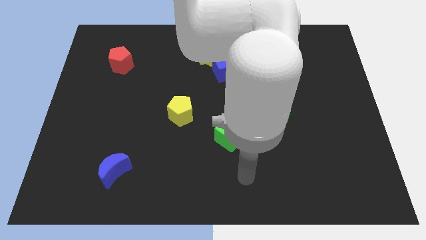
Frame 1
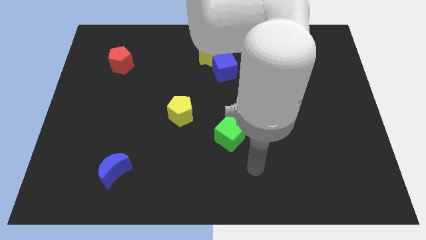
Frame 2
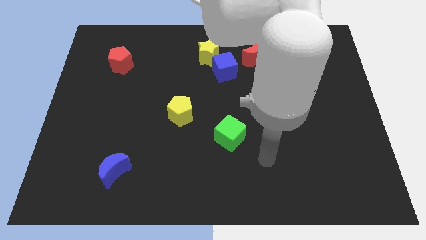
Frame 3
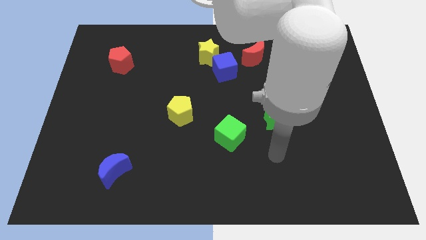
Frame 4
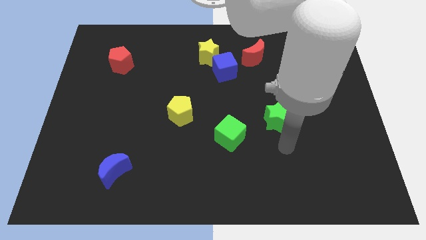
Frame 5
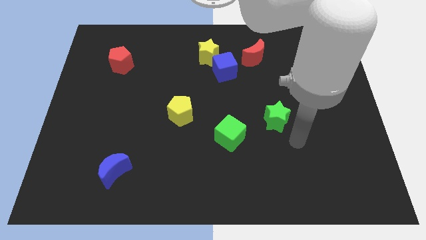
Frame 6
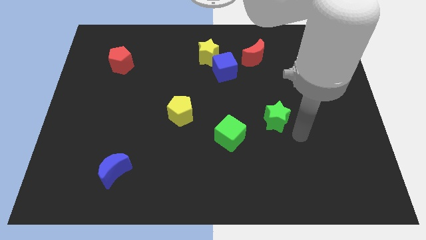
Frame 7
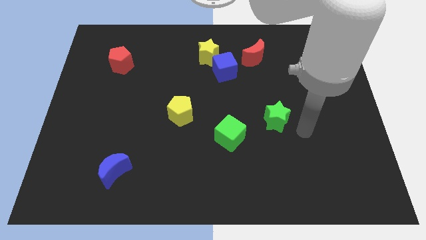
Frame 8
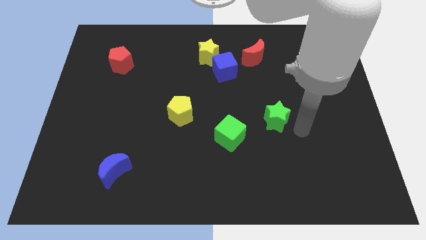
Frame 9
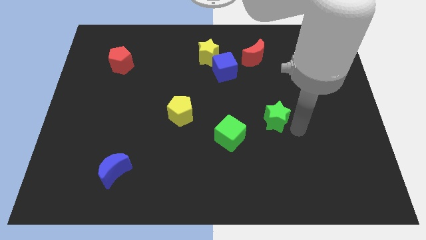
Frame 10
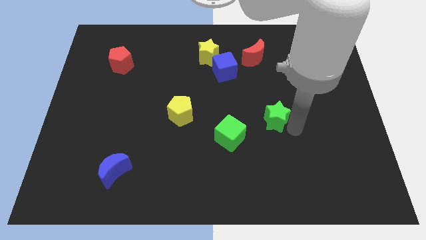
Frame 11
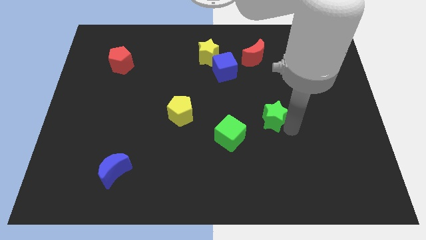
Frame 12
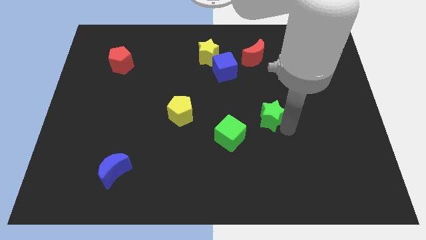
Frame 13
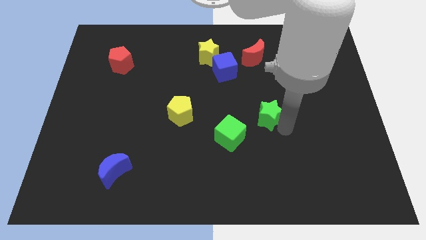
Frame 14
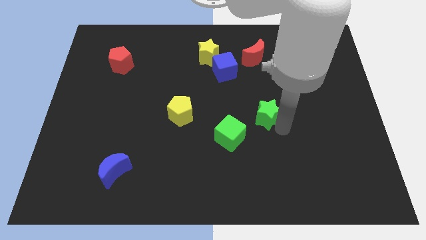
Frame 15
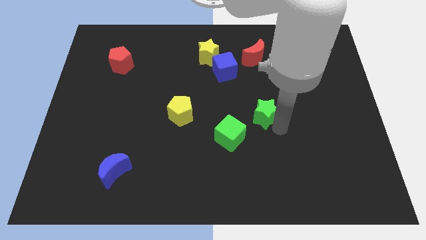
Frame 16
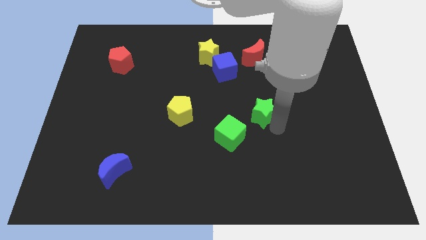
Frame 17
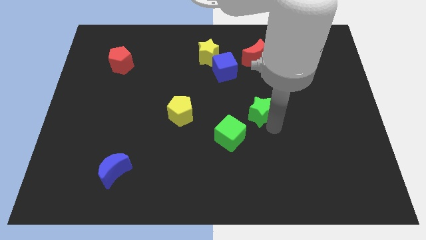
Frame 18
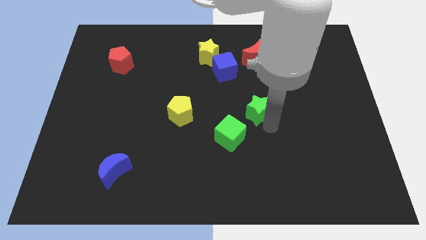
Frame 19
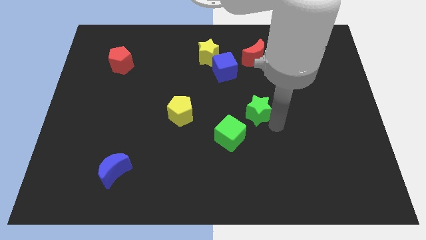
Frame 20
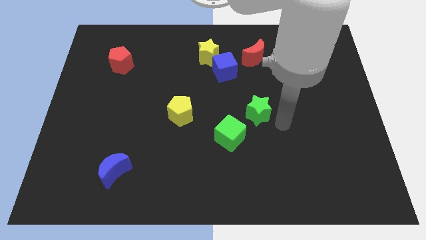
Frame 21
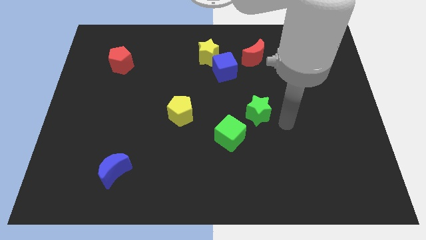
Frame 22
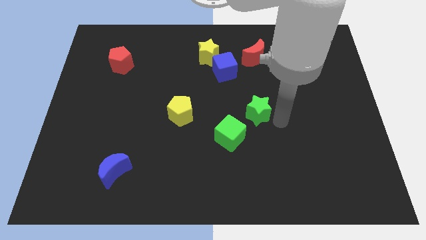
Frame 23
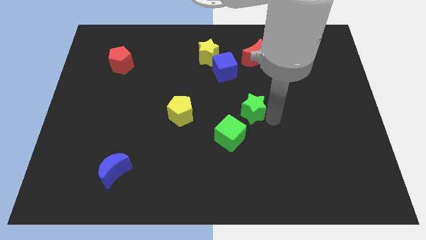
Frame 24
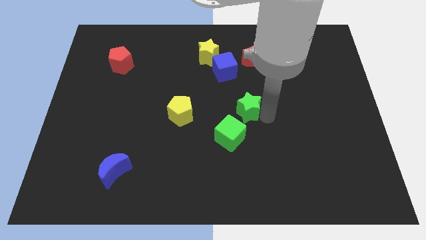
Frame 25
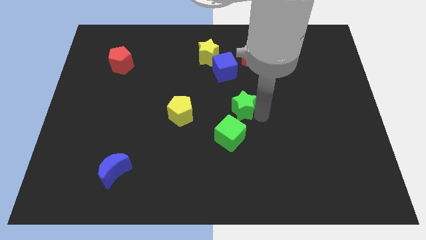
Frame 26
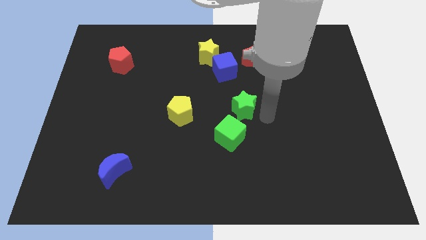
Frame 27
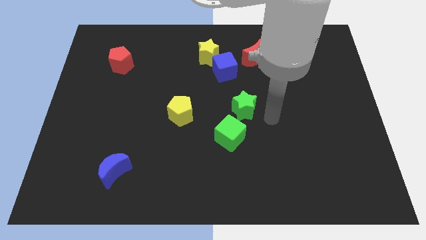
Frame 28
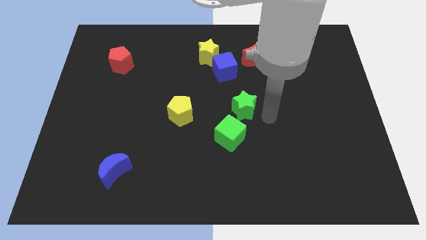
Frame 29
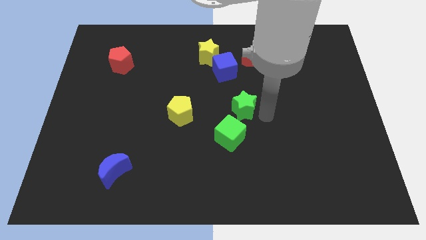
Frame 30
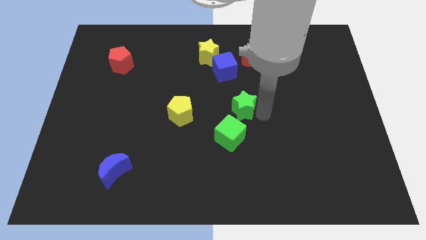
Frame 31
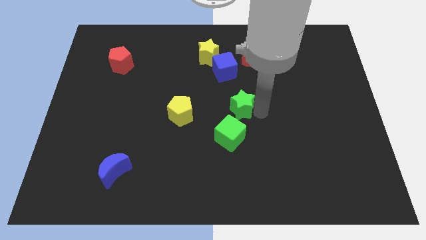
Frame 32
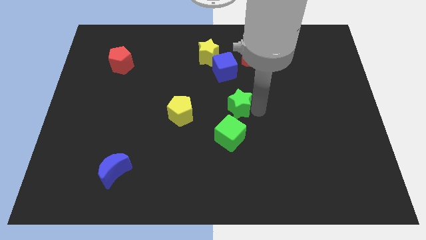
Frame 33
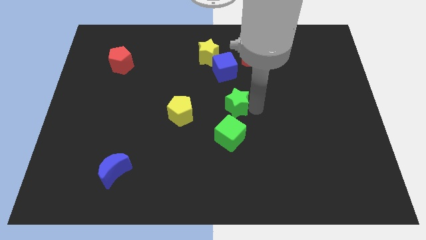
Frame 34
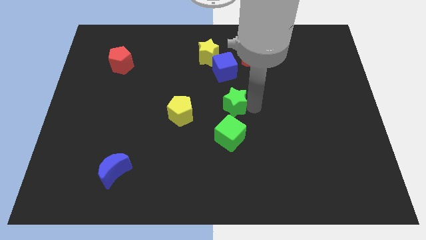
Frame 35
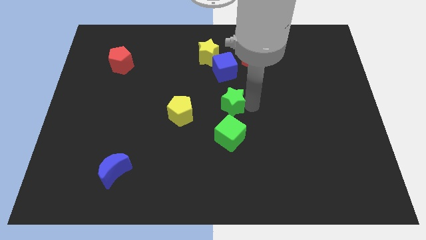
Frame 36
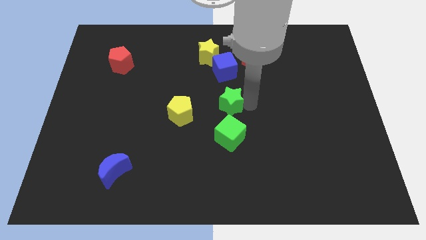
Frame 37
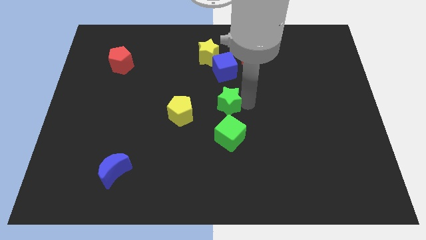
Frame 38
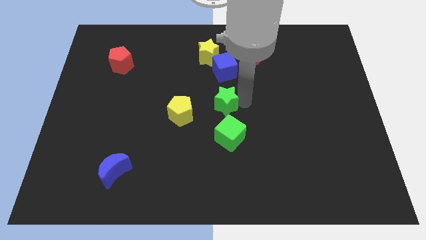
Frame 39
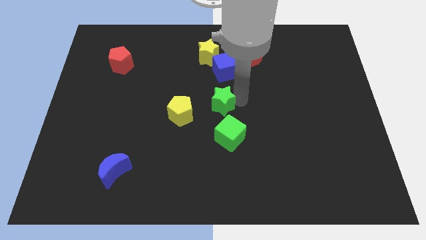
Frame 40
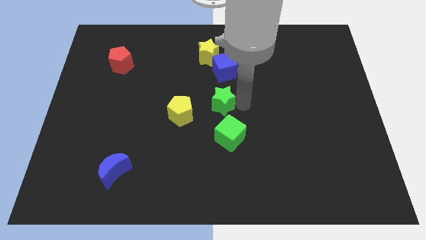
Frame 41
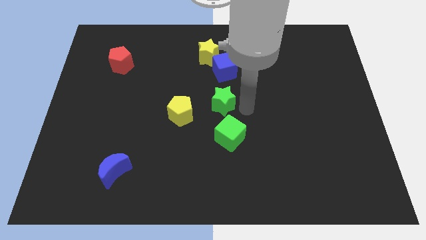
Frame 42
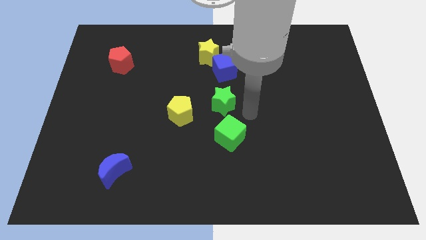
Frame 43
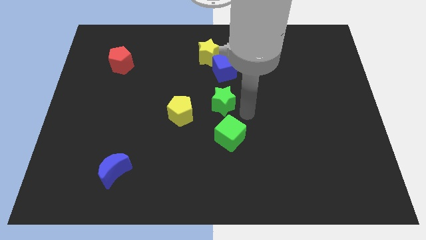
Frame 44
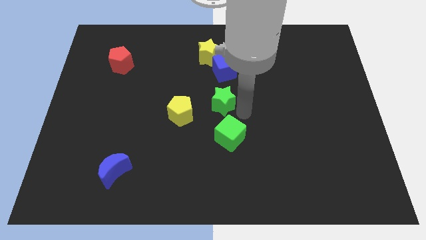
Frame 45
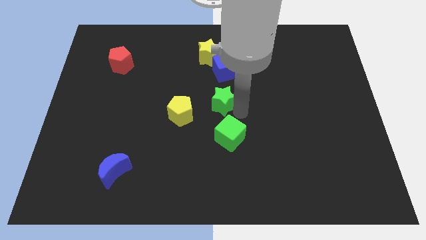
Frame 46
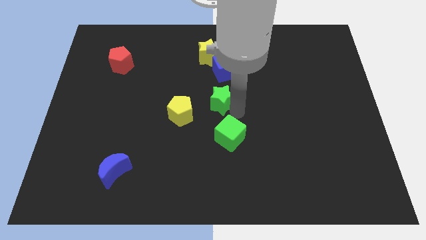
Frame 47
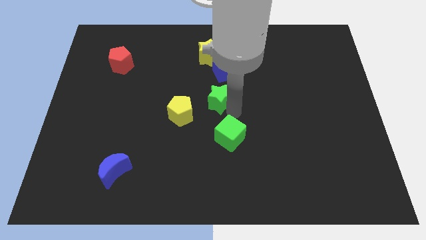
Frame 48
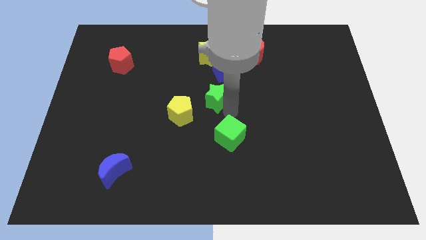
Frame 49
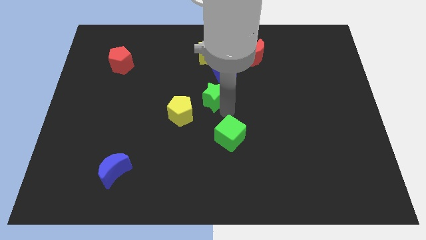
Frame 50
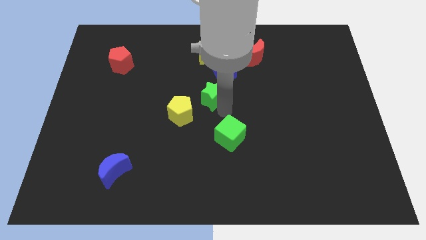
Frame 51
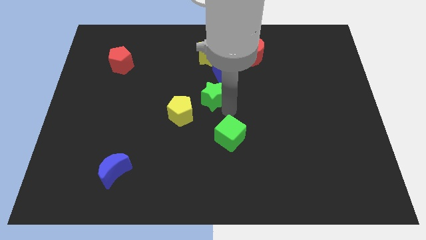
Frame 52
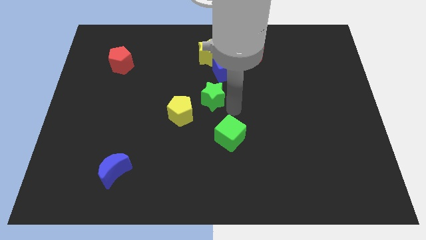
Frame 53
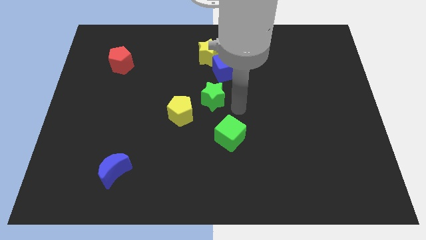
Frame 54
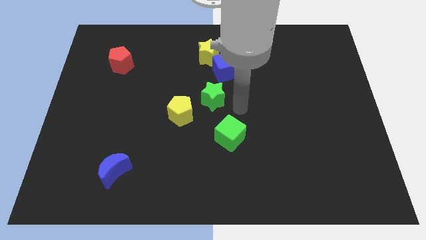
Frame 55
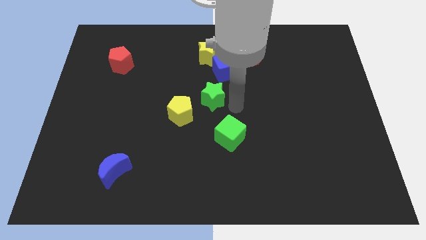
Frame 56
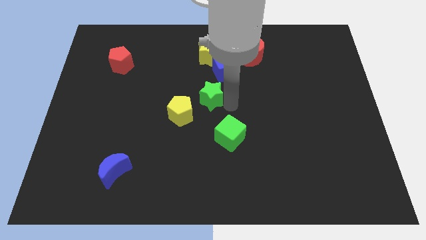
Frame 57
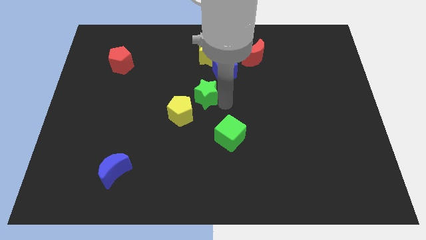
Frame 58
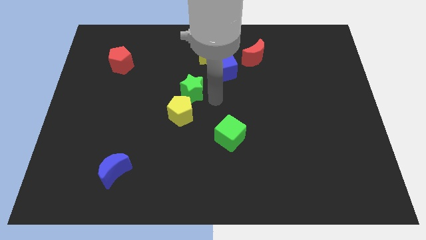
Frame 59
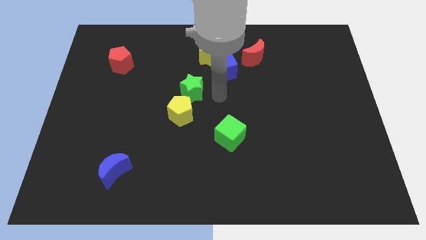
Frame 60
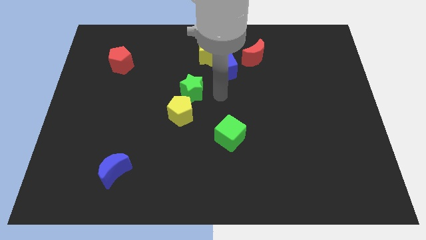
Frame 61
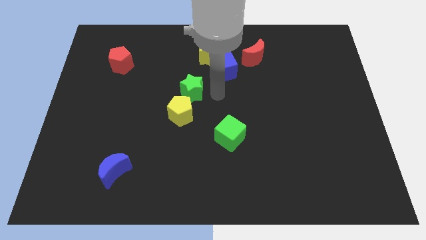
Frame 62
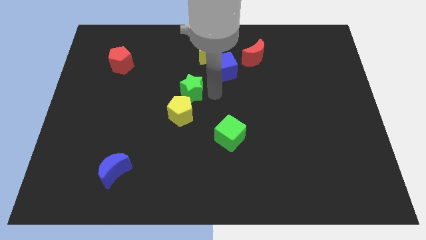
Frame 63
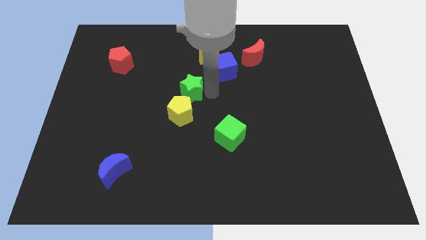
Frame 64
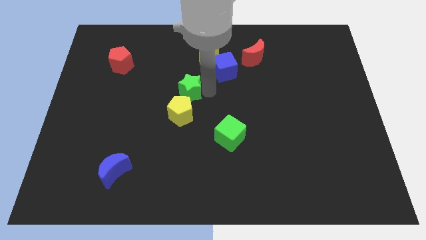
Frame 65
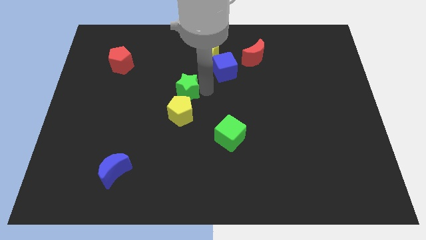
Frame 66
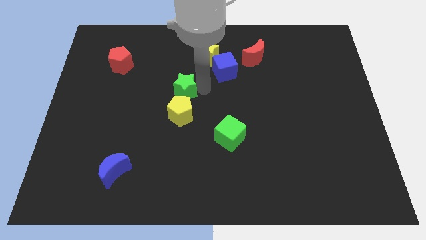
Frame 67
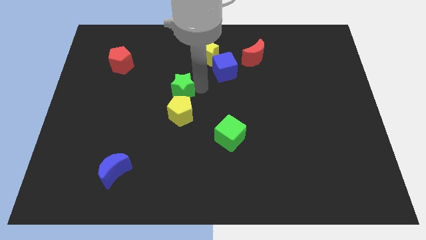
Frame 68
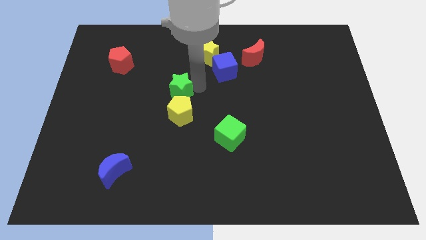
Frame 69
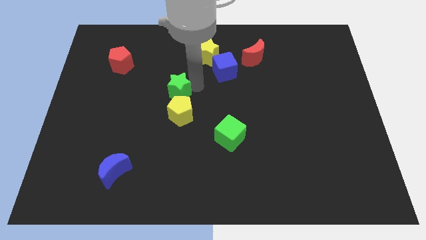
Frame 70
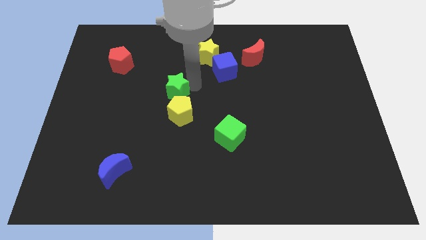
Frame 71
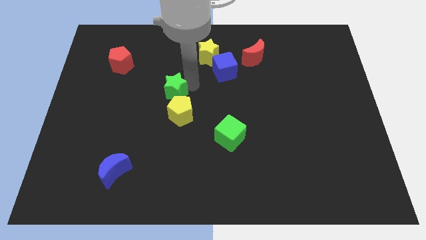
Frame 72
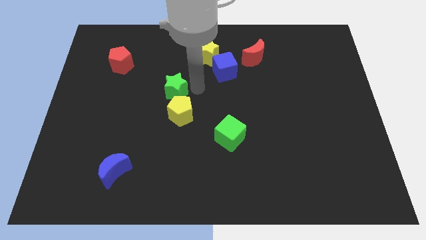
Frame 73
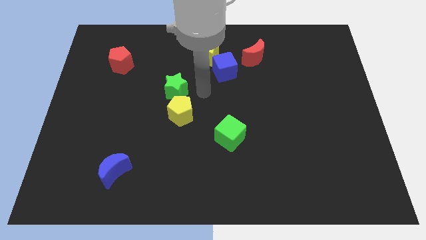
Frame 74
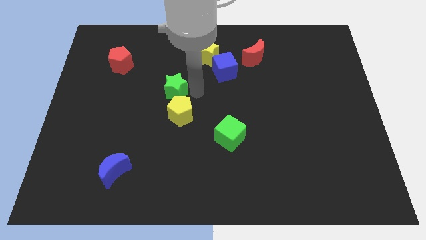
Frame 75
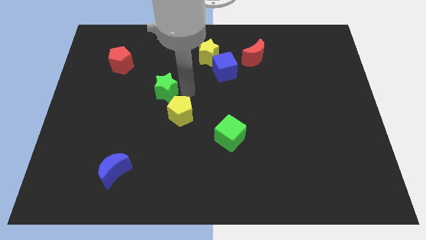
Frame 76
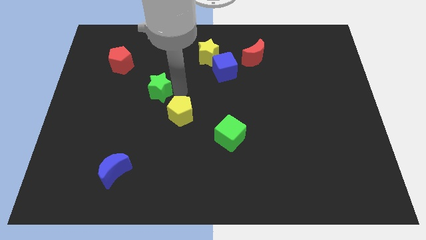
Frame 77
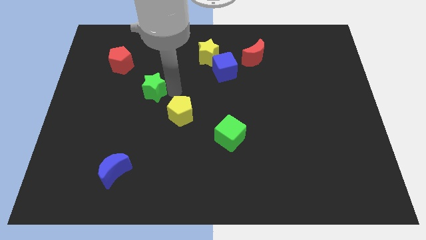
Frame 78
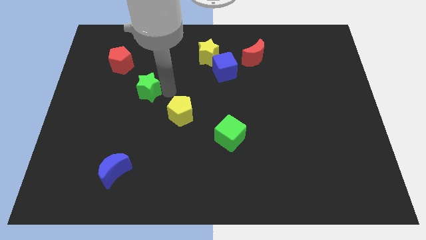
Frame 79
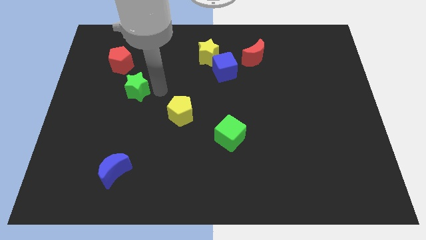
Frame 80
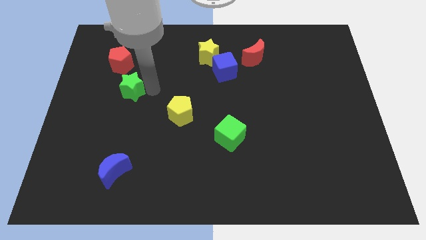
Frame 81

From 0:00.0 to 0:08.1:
put the green star to the bottom side of the red pentagon

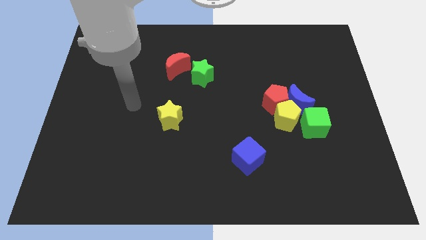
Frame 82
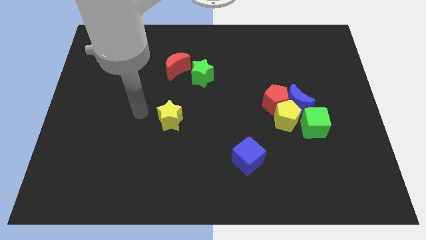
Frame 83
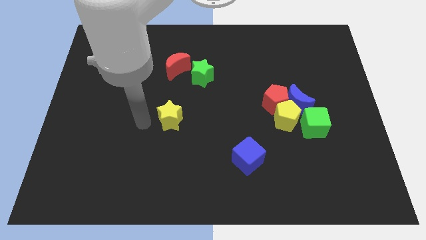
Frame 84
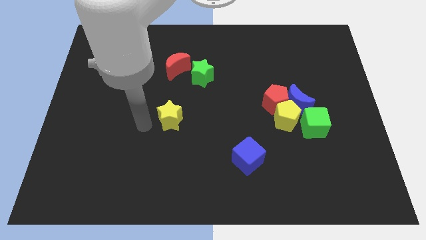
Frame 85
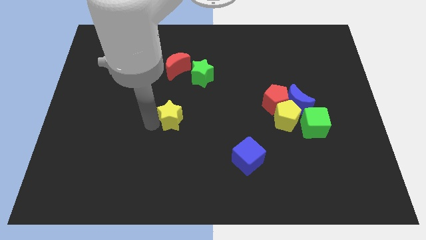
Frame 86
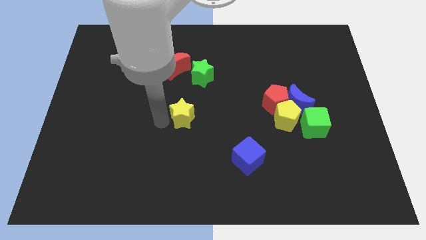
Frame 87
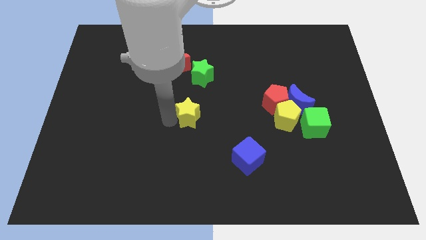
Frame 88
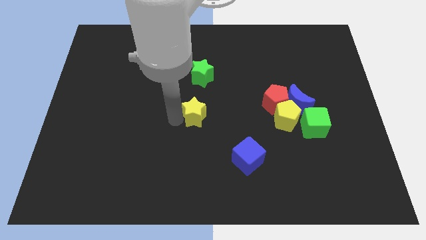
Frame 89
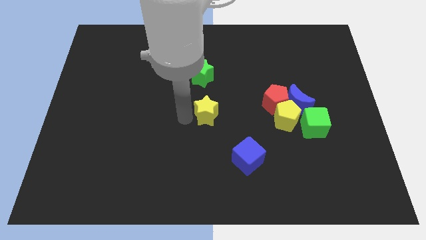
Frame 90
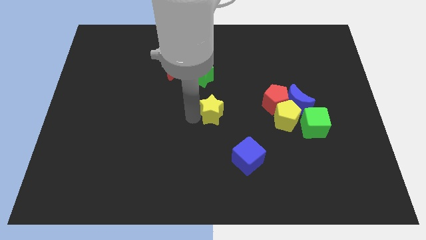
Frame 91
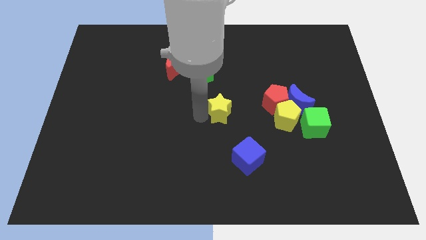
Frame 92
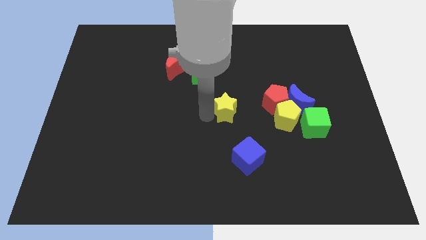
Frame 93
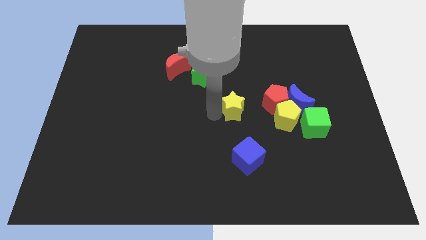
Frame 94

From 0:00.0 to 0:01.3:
push the yellow star to the left side of the blue moon
